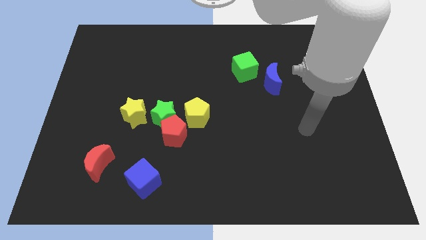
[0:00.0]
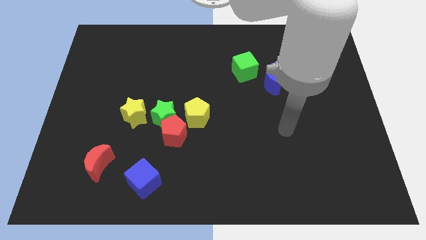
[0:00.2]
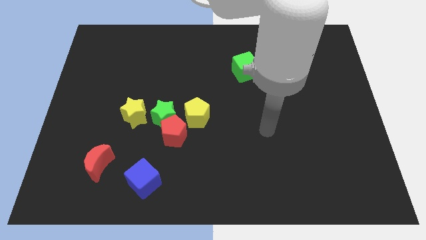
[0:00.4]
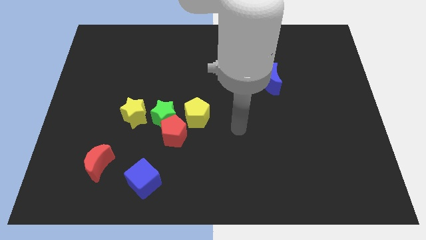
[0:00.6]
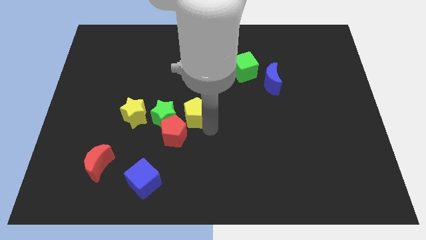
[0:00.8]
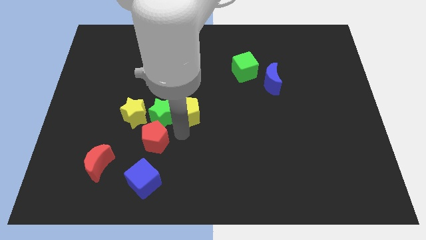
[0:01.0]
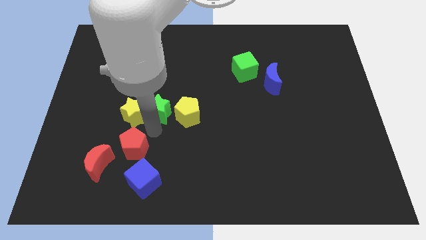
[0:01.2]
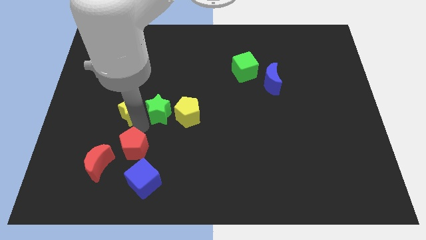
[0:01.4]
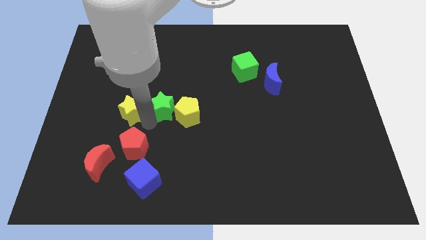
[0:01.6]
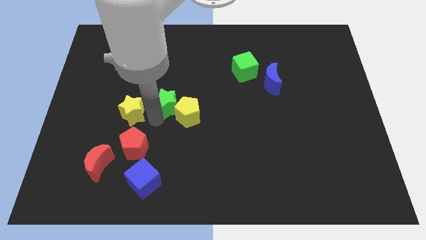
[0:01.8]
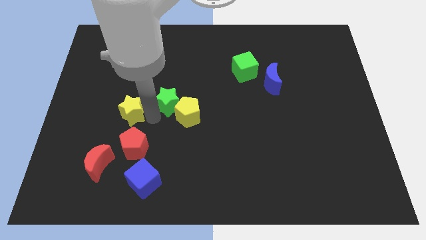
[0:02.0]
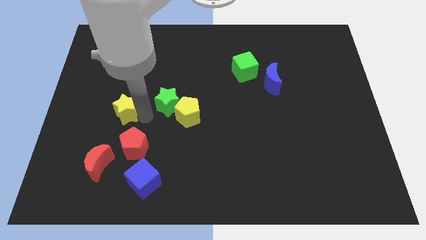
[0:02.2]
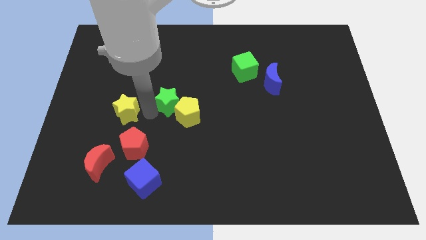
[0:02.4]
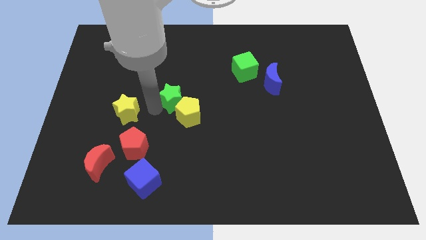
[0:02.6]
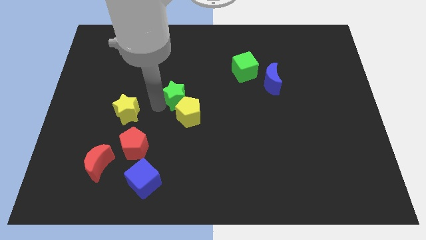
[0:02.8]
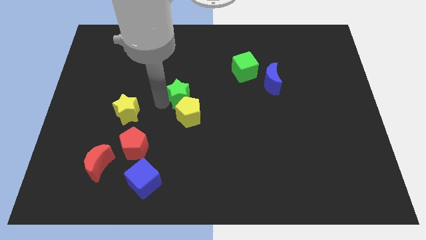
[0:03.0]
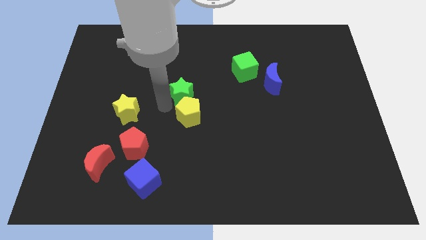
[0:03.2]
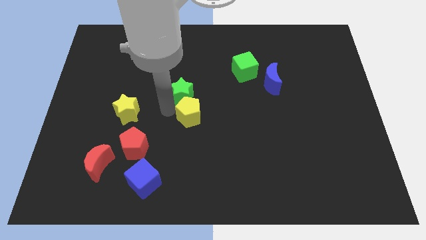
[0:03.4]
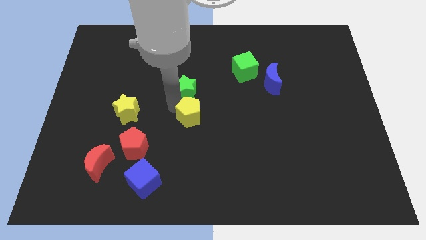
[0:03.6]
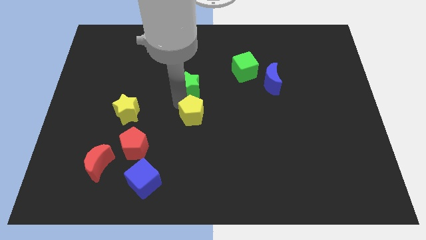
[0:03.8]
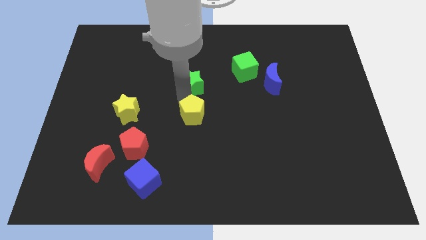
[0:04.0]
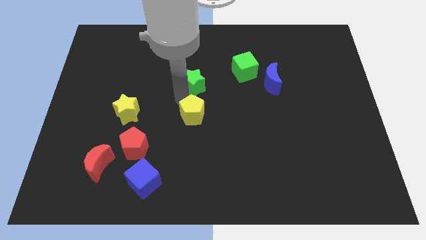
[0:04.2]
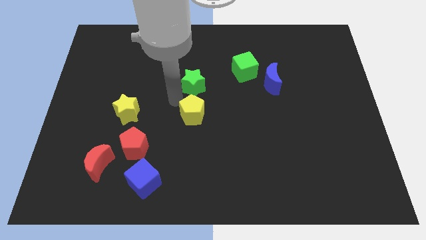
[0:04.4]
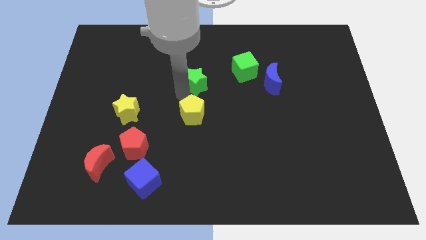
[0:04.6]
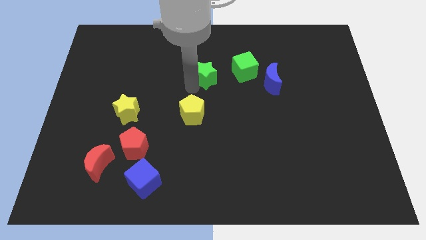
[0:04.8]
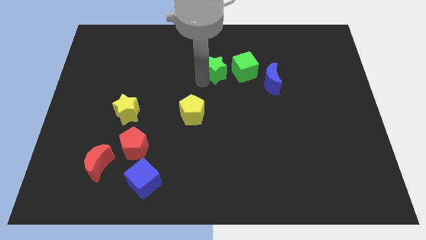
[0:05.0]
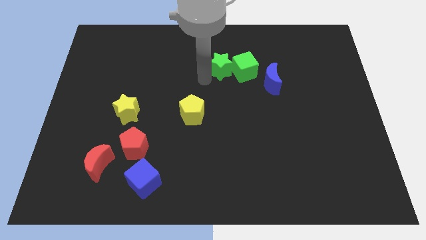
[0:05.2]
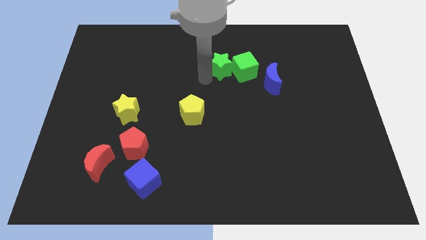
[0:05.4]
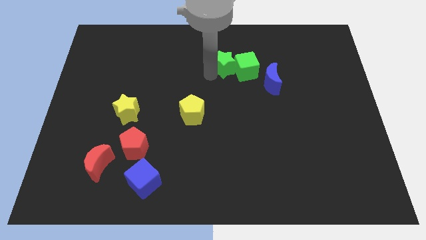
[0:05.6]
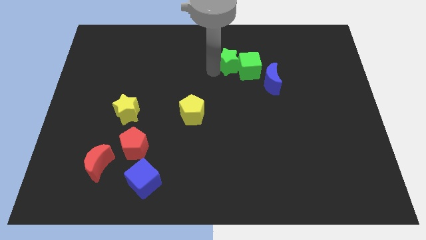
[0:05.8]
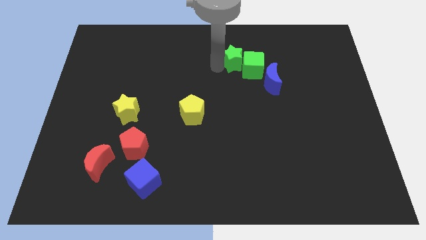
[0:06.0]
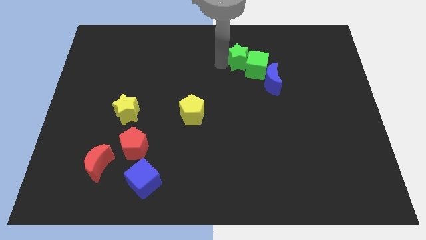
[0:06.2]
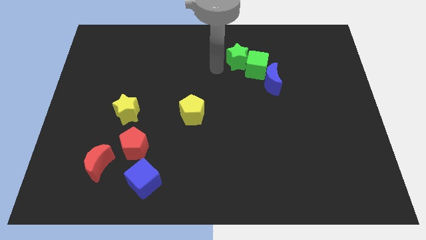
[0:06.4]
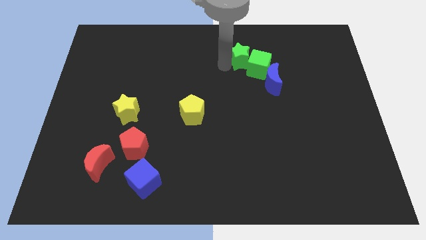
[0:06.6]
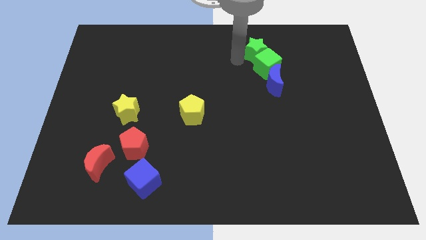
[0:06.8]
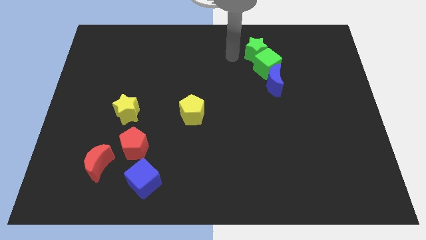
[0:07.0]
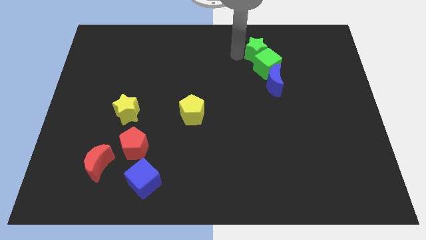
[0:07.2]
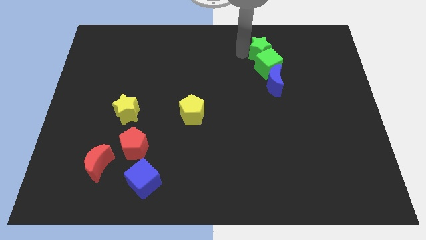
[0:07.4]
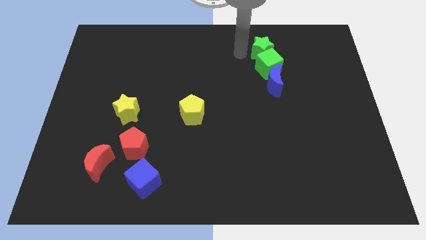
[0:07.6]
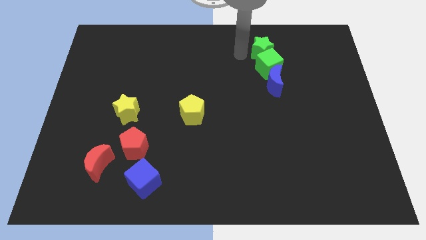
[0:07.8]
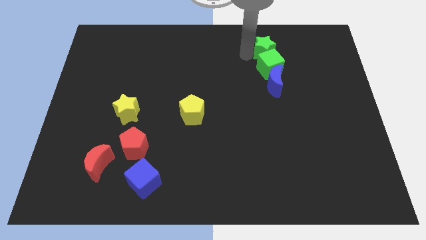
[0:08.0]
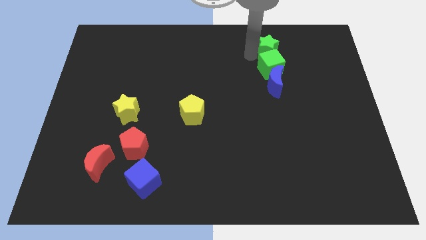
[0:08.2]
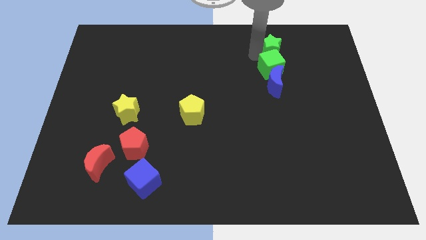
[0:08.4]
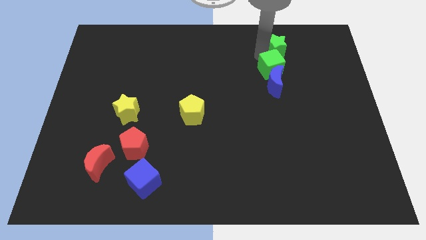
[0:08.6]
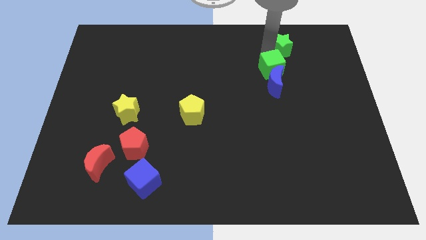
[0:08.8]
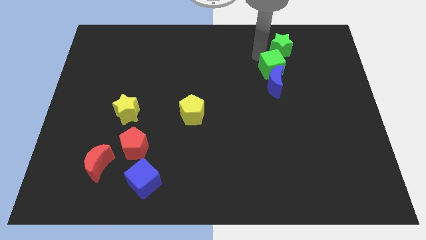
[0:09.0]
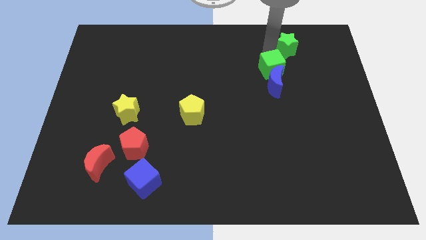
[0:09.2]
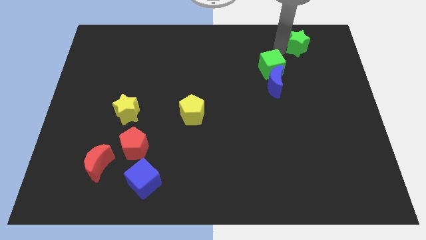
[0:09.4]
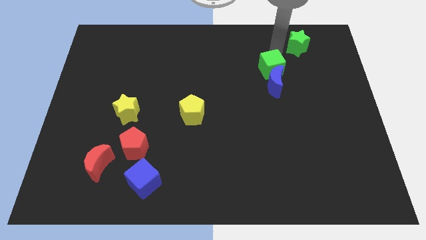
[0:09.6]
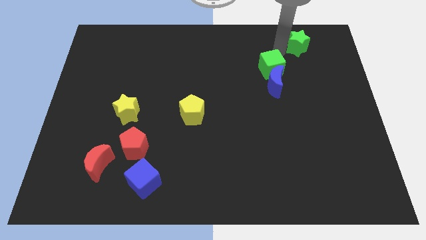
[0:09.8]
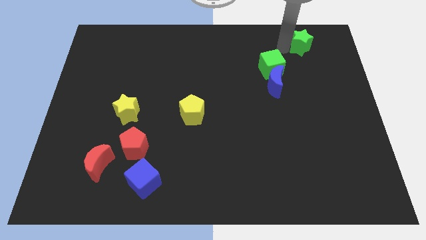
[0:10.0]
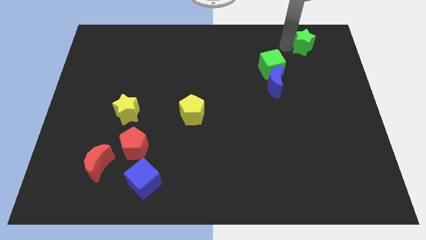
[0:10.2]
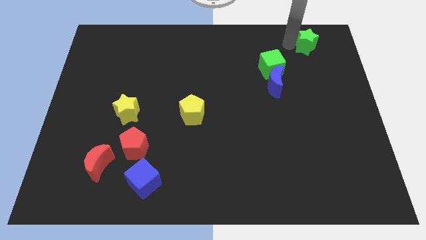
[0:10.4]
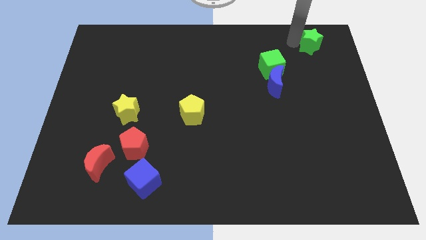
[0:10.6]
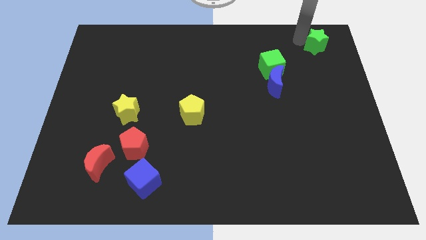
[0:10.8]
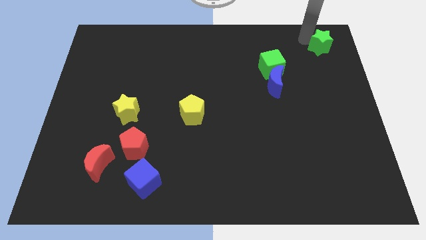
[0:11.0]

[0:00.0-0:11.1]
put the green star to the upper right corner
